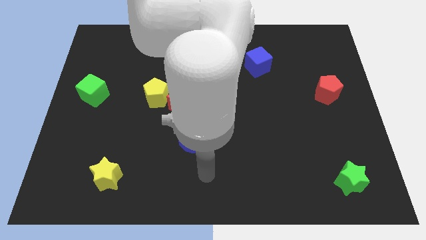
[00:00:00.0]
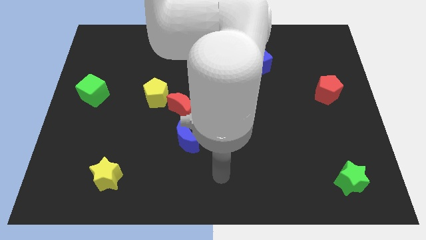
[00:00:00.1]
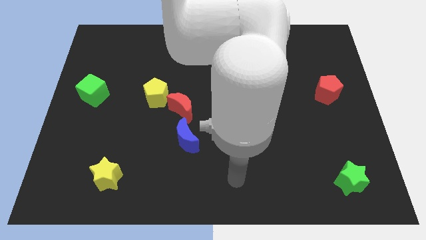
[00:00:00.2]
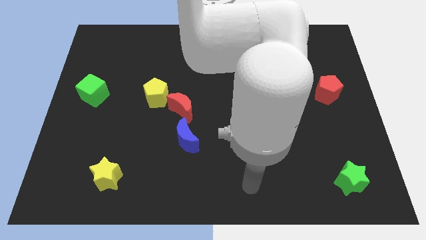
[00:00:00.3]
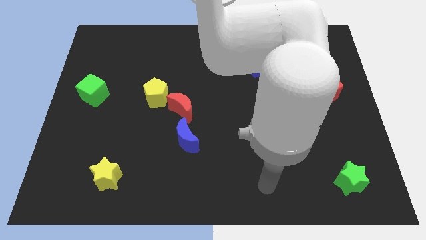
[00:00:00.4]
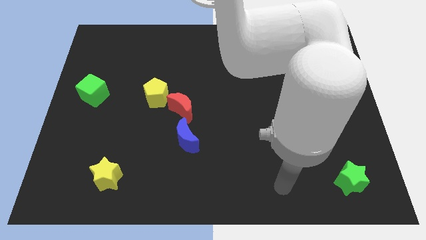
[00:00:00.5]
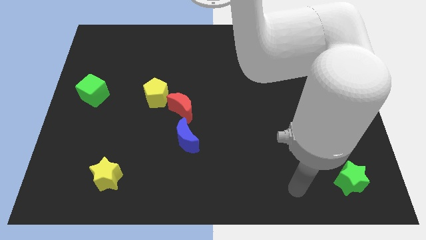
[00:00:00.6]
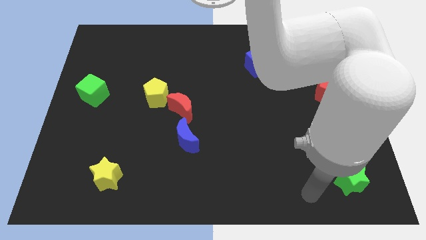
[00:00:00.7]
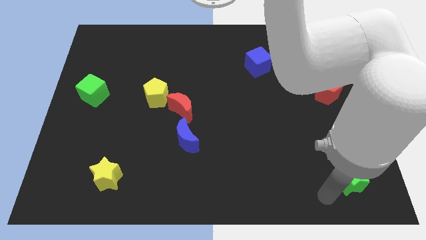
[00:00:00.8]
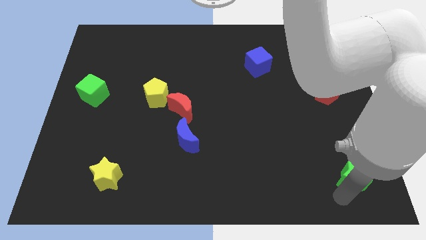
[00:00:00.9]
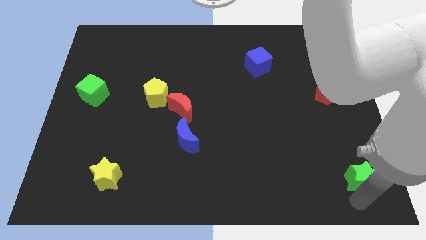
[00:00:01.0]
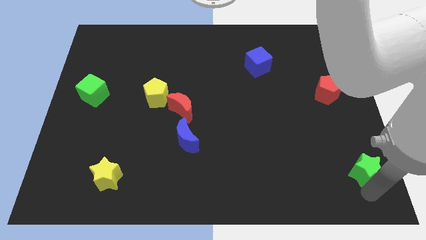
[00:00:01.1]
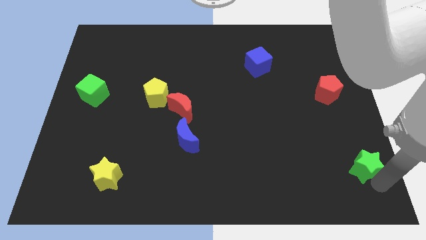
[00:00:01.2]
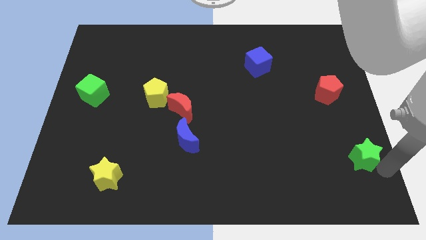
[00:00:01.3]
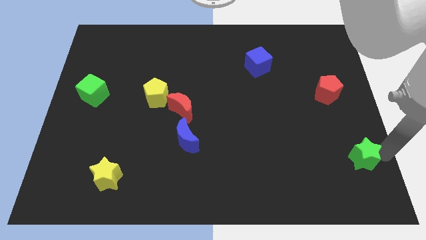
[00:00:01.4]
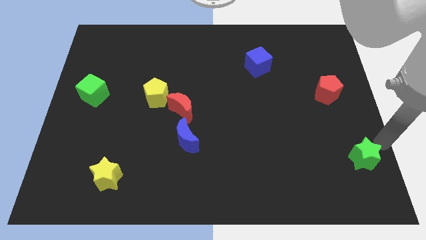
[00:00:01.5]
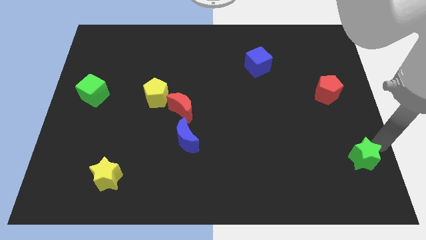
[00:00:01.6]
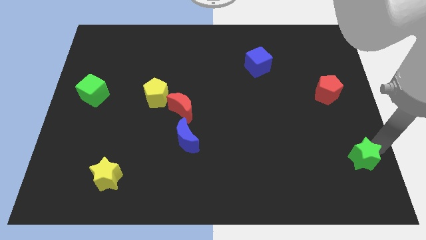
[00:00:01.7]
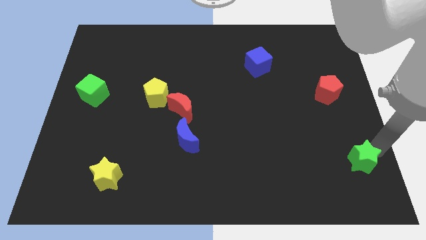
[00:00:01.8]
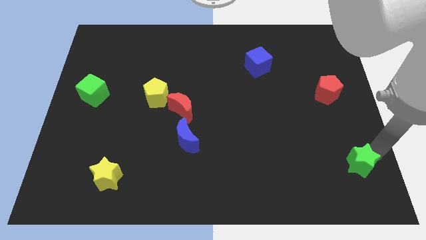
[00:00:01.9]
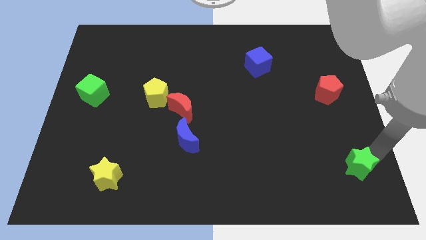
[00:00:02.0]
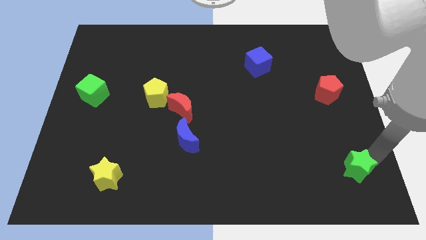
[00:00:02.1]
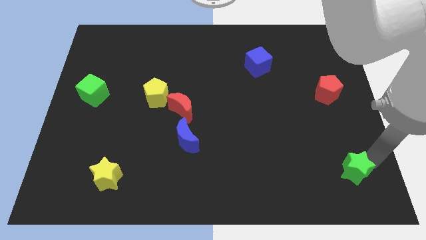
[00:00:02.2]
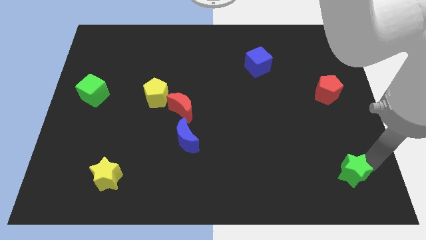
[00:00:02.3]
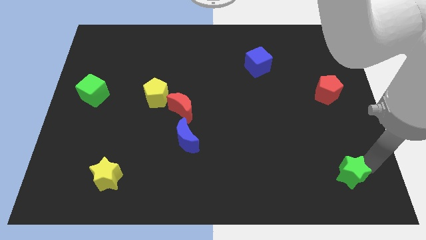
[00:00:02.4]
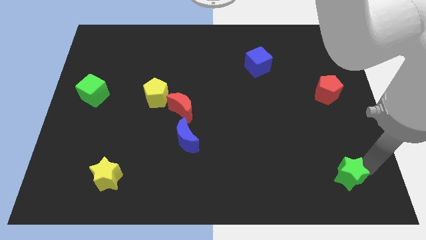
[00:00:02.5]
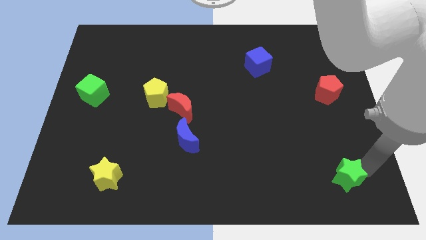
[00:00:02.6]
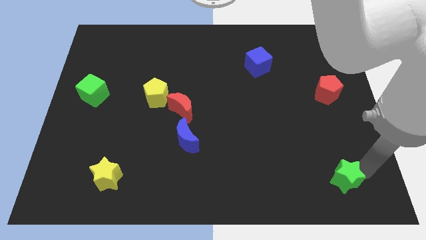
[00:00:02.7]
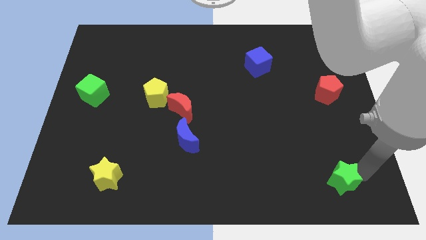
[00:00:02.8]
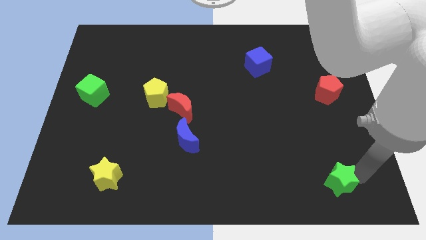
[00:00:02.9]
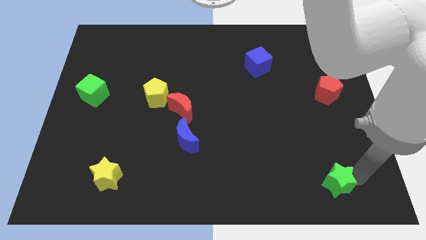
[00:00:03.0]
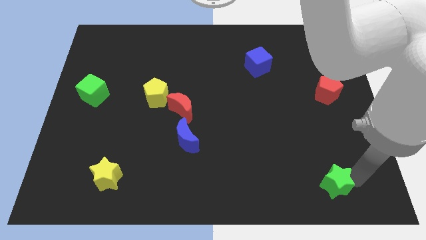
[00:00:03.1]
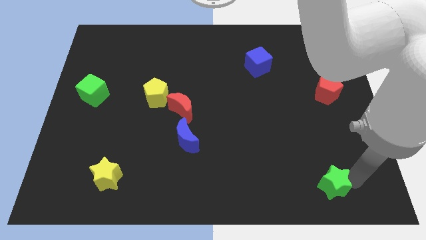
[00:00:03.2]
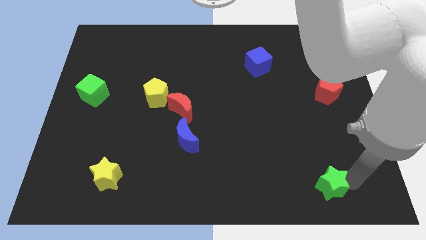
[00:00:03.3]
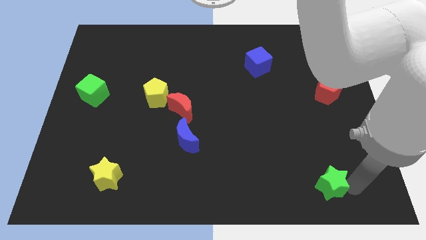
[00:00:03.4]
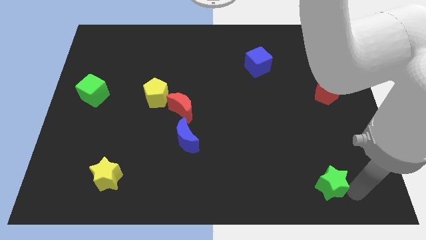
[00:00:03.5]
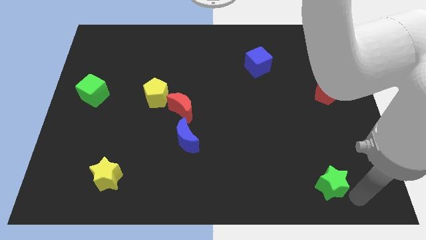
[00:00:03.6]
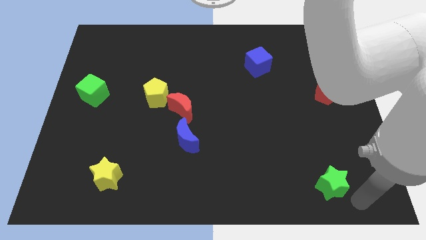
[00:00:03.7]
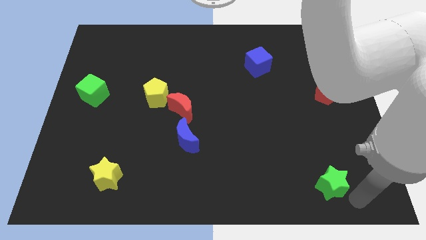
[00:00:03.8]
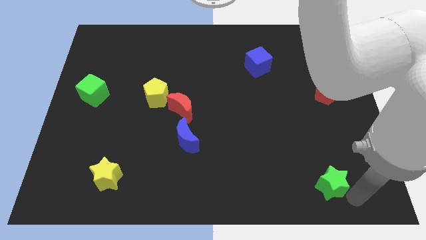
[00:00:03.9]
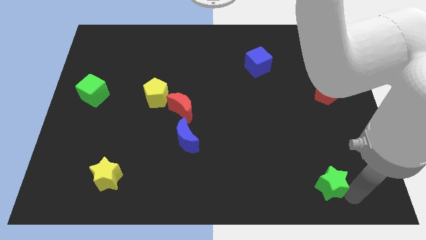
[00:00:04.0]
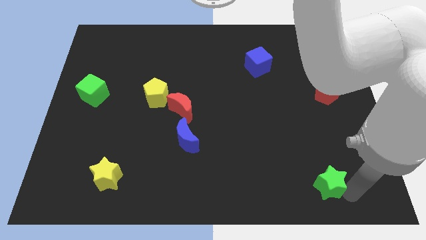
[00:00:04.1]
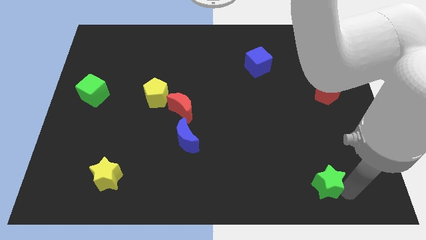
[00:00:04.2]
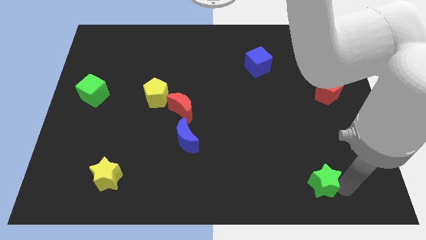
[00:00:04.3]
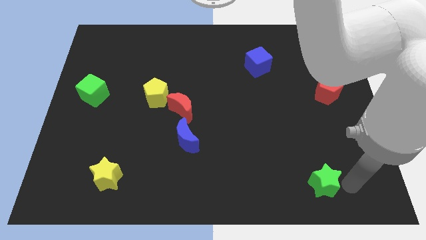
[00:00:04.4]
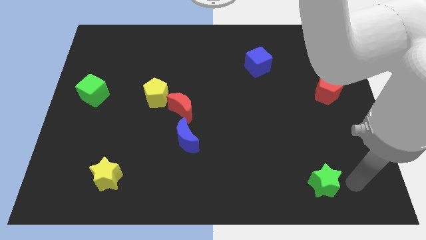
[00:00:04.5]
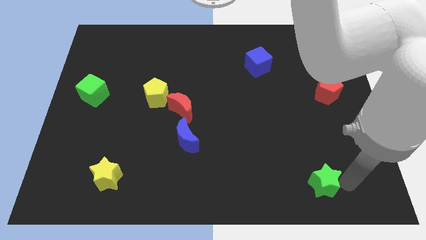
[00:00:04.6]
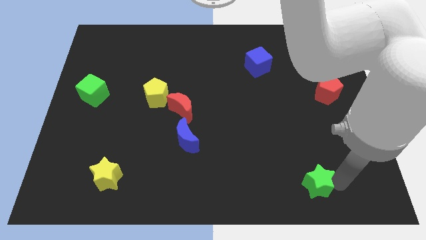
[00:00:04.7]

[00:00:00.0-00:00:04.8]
slightly move the green star left

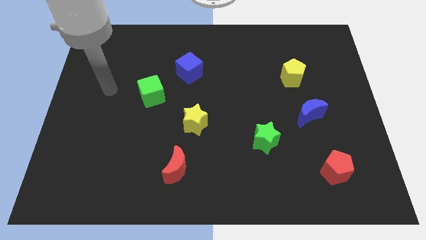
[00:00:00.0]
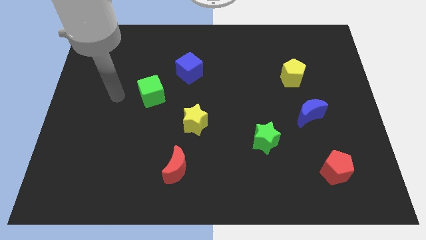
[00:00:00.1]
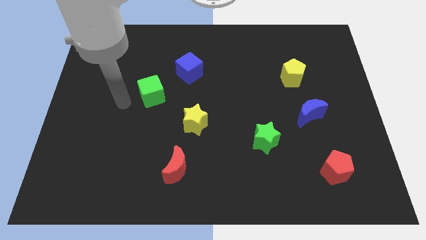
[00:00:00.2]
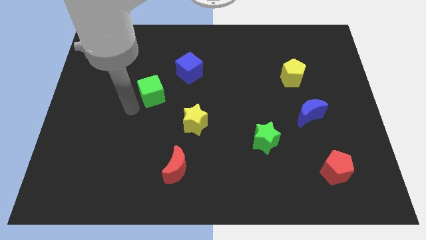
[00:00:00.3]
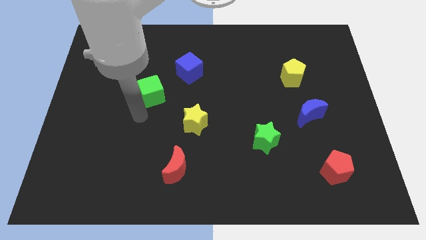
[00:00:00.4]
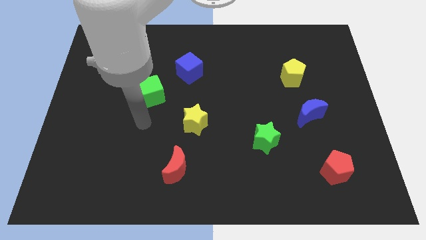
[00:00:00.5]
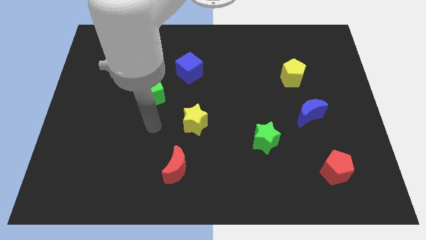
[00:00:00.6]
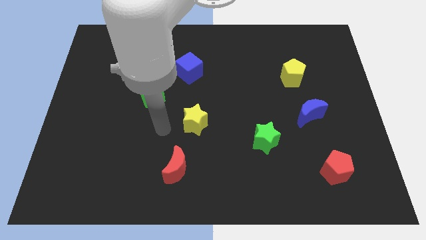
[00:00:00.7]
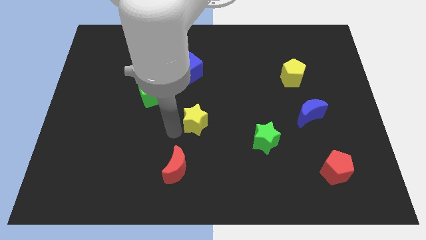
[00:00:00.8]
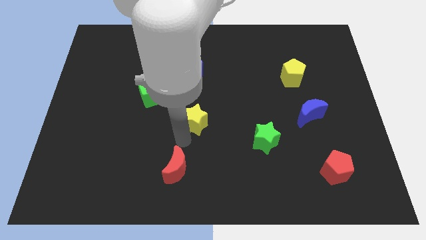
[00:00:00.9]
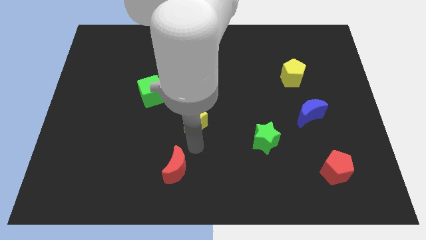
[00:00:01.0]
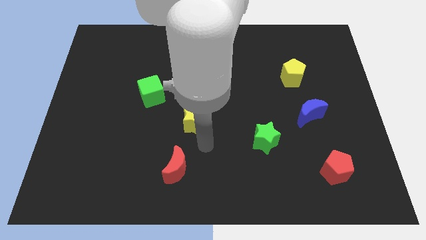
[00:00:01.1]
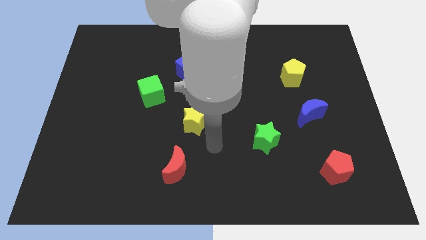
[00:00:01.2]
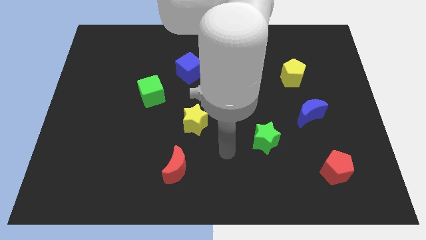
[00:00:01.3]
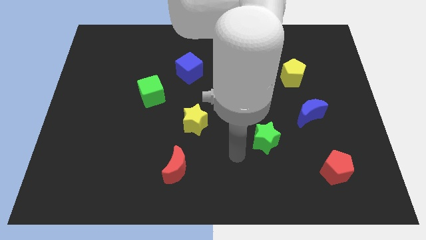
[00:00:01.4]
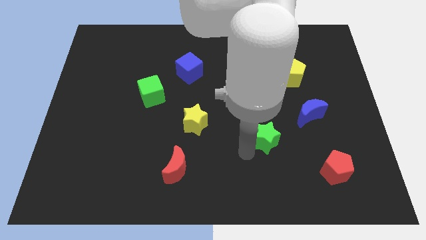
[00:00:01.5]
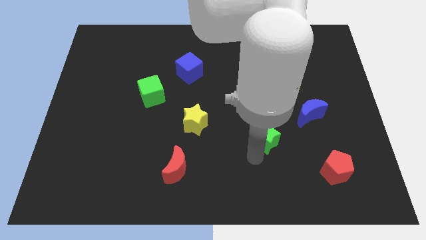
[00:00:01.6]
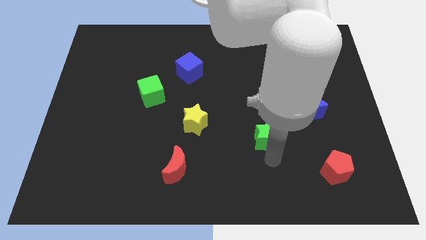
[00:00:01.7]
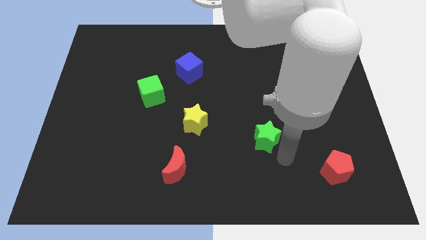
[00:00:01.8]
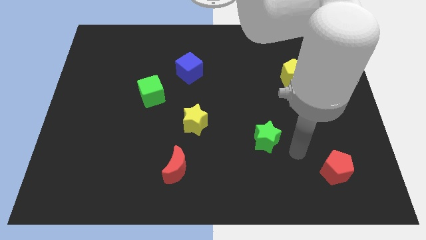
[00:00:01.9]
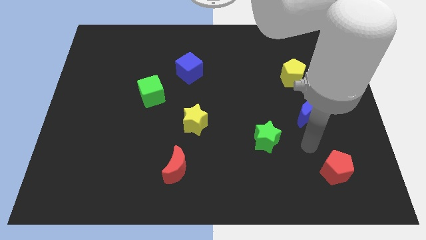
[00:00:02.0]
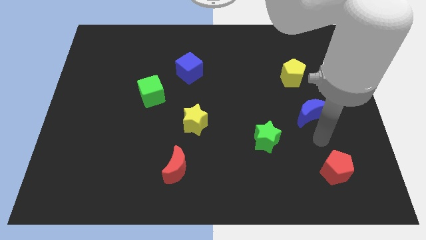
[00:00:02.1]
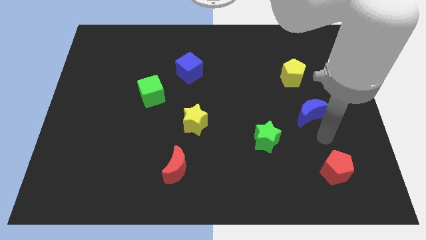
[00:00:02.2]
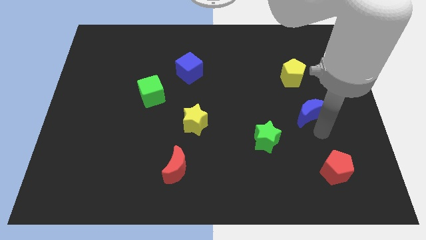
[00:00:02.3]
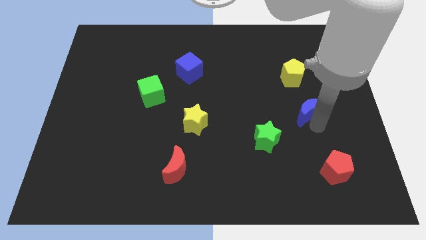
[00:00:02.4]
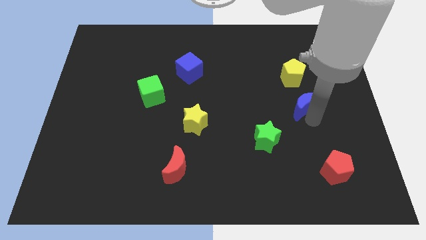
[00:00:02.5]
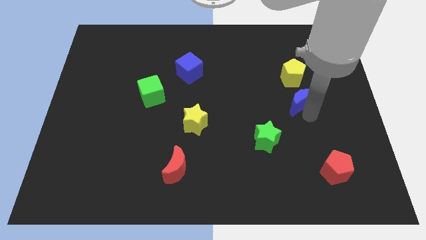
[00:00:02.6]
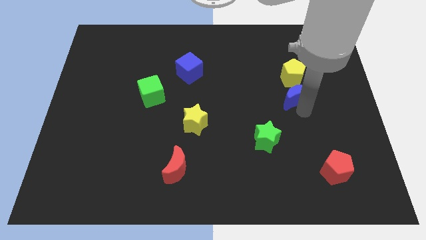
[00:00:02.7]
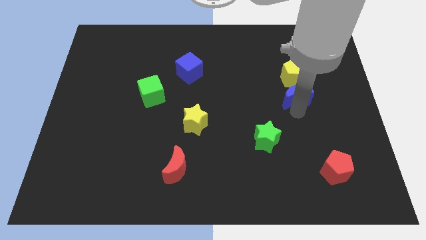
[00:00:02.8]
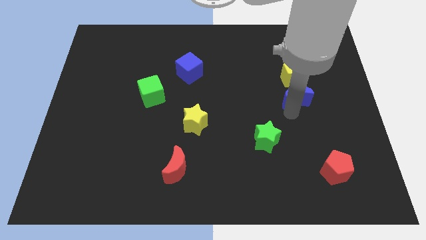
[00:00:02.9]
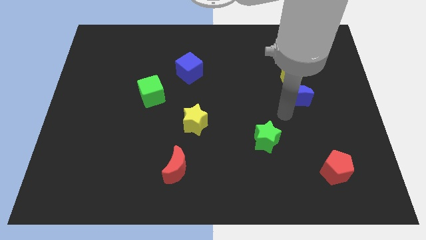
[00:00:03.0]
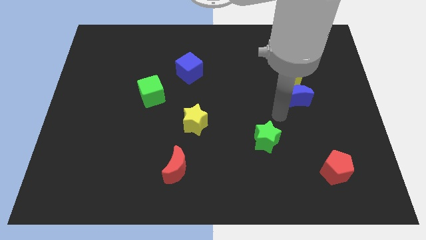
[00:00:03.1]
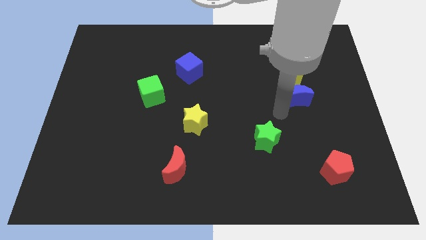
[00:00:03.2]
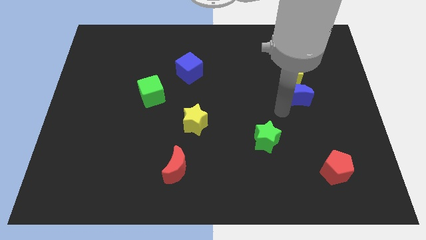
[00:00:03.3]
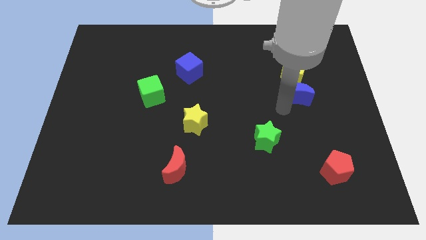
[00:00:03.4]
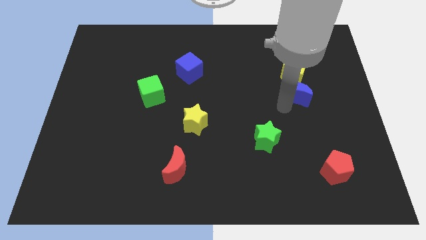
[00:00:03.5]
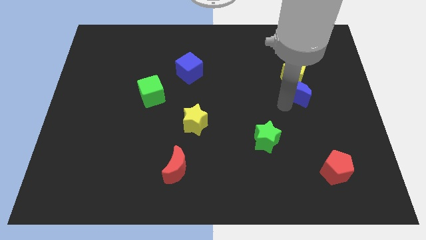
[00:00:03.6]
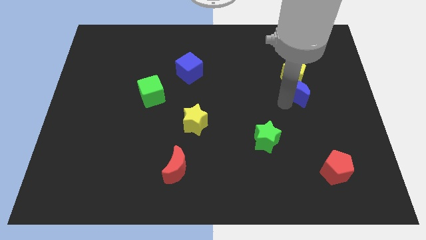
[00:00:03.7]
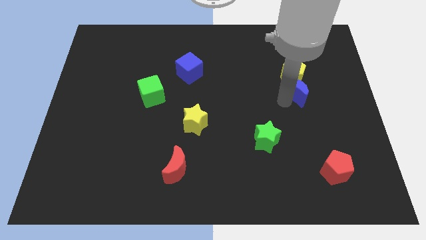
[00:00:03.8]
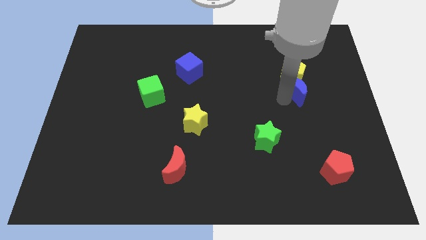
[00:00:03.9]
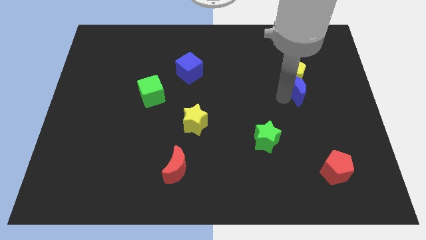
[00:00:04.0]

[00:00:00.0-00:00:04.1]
slightly push the blue moon up
